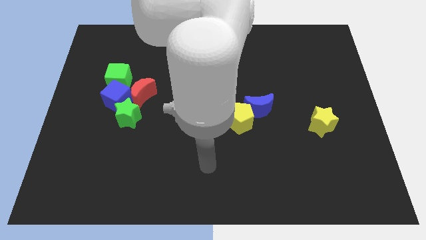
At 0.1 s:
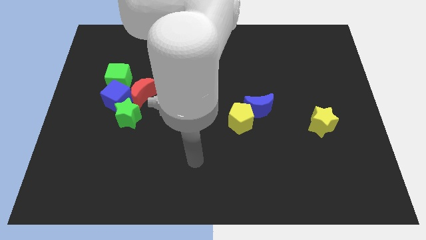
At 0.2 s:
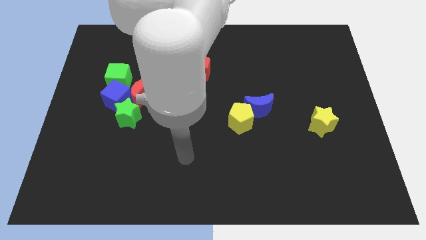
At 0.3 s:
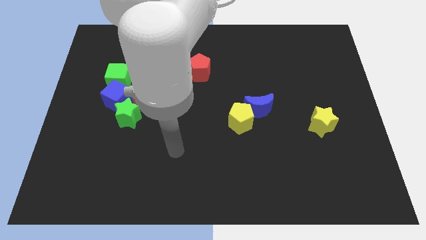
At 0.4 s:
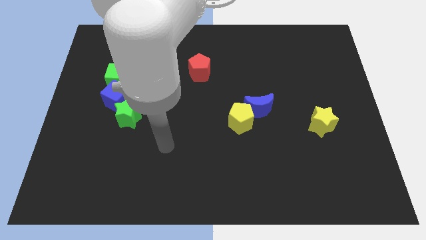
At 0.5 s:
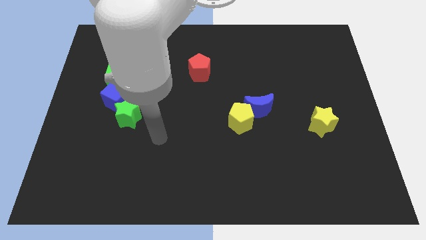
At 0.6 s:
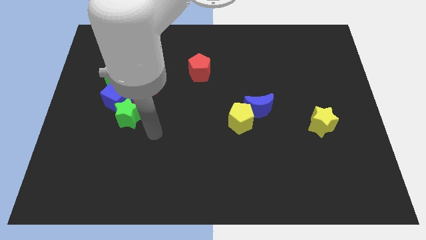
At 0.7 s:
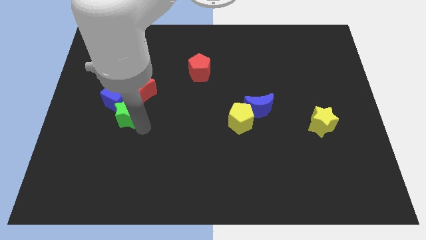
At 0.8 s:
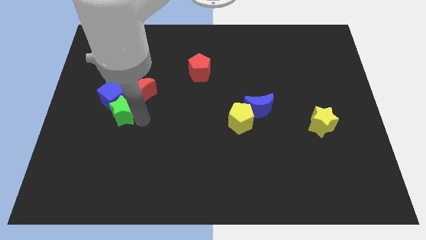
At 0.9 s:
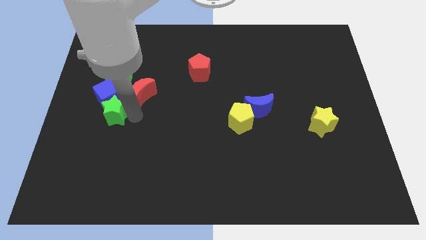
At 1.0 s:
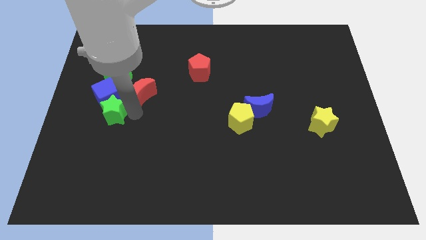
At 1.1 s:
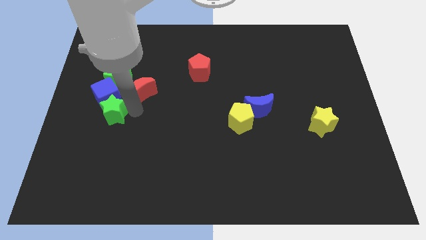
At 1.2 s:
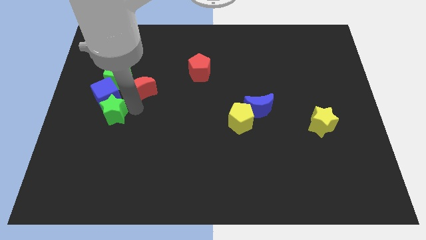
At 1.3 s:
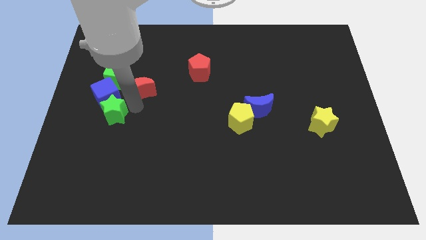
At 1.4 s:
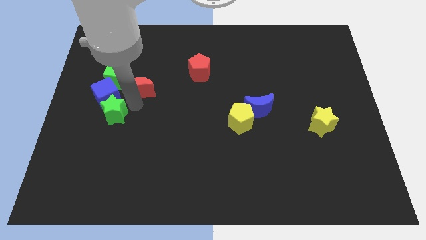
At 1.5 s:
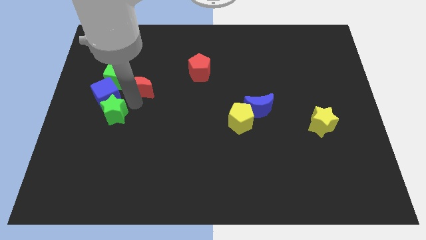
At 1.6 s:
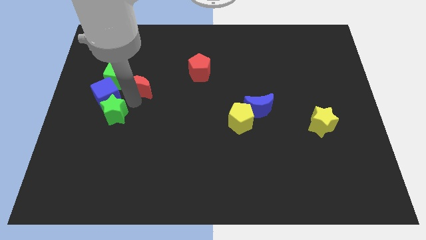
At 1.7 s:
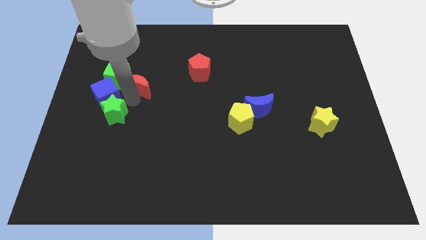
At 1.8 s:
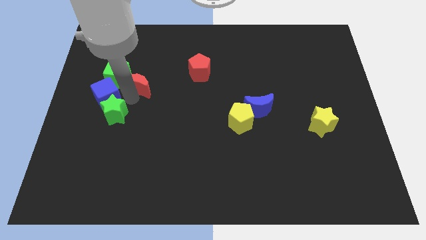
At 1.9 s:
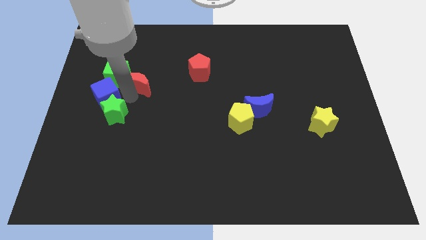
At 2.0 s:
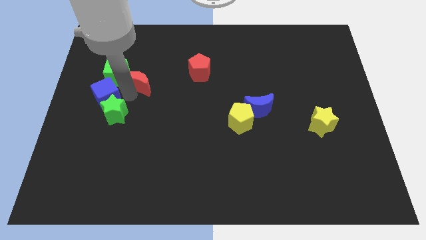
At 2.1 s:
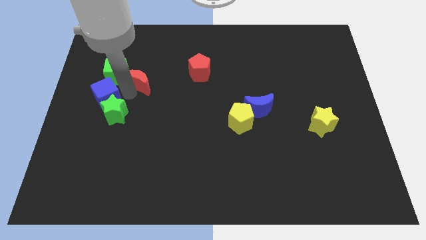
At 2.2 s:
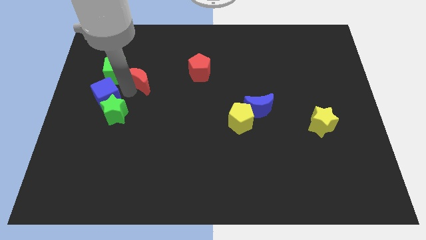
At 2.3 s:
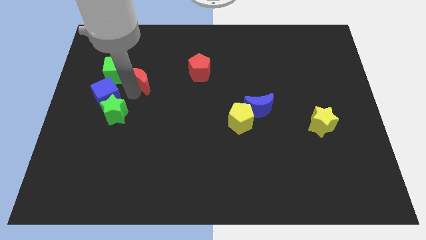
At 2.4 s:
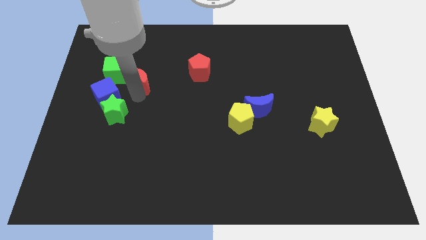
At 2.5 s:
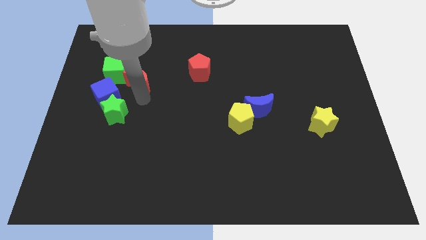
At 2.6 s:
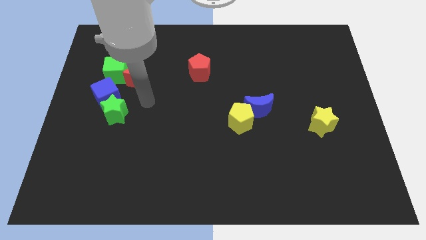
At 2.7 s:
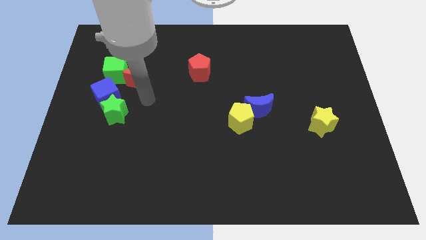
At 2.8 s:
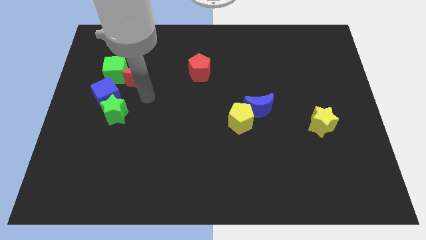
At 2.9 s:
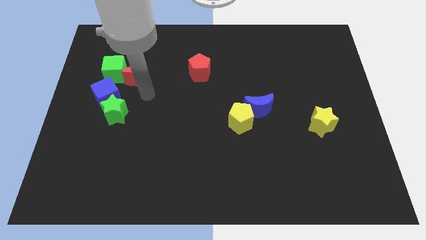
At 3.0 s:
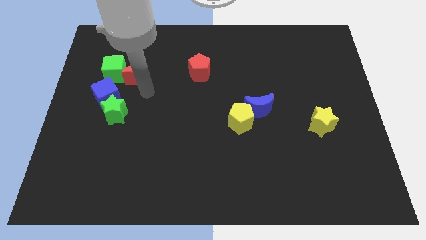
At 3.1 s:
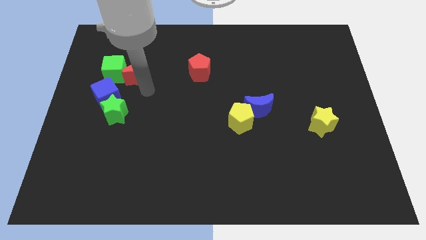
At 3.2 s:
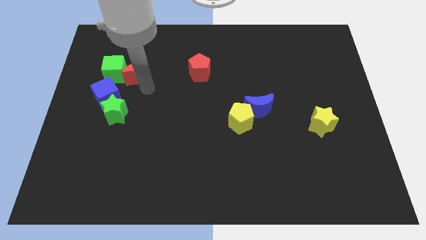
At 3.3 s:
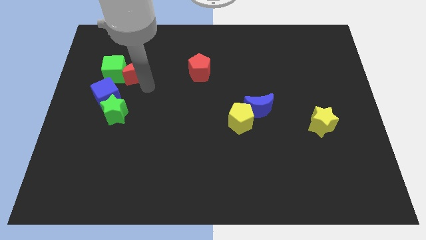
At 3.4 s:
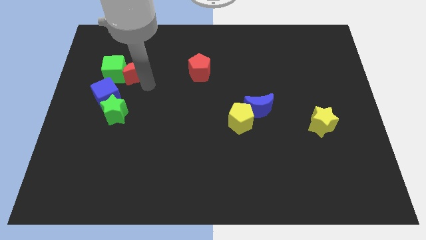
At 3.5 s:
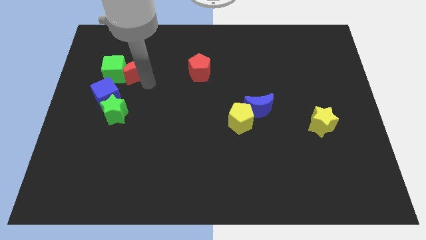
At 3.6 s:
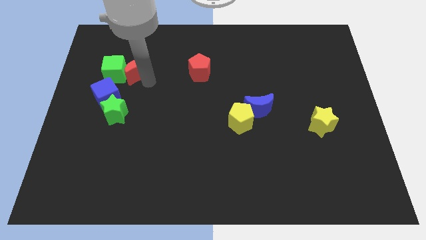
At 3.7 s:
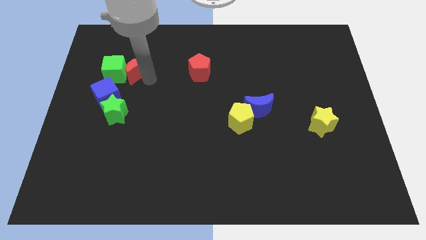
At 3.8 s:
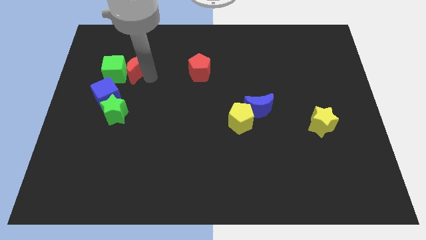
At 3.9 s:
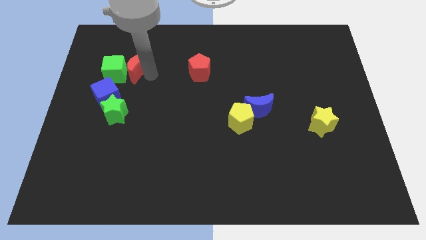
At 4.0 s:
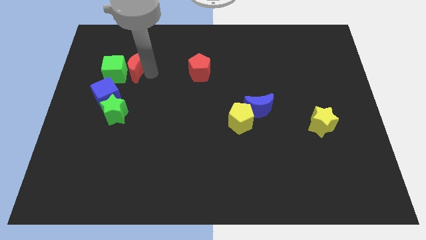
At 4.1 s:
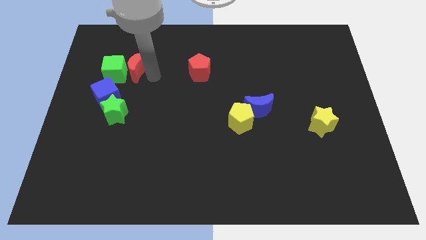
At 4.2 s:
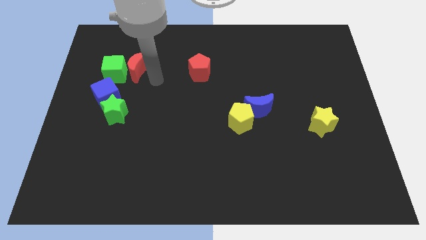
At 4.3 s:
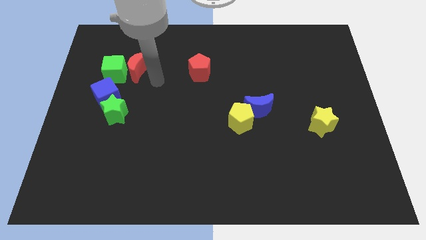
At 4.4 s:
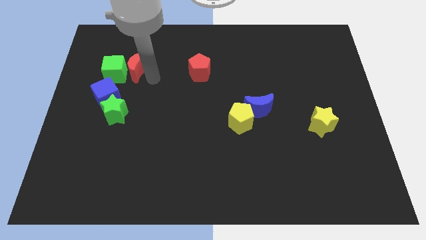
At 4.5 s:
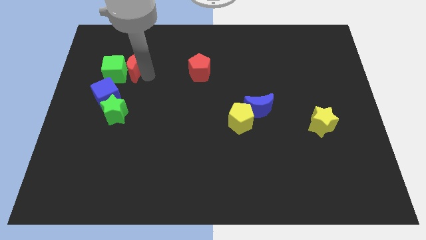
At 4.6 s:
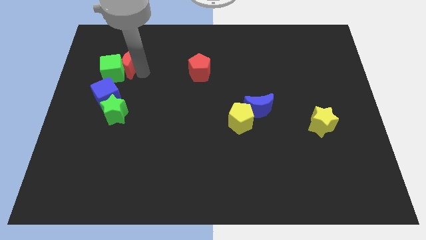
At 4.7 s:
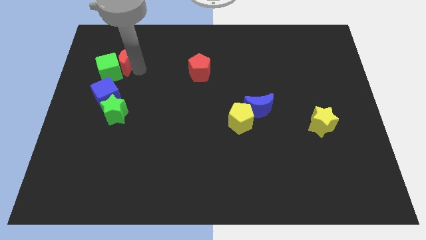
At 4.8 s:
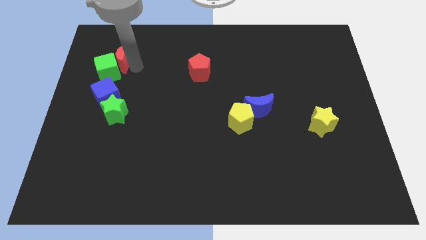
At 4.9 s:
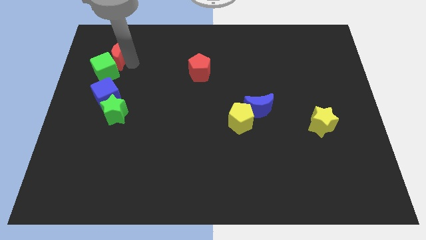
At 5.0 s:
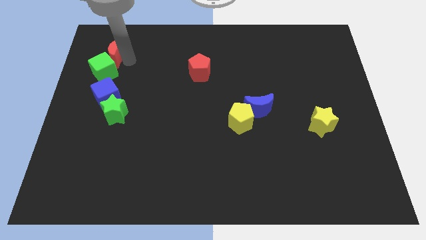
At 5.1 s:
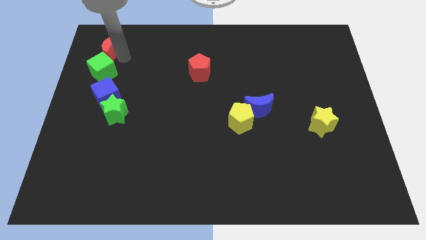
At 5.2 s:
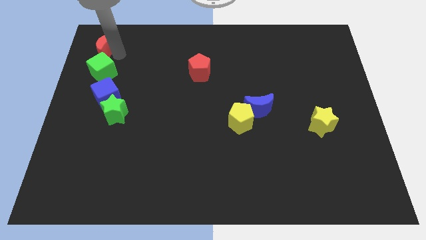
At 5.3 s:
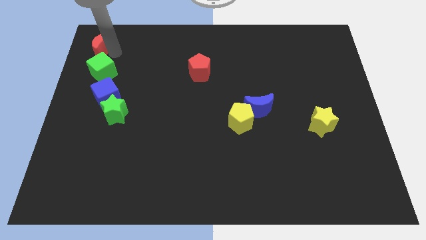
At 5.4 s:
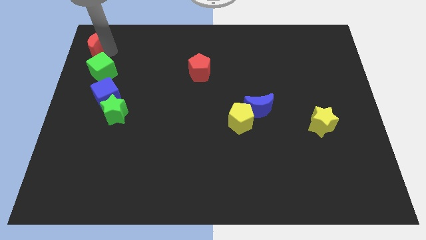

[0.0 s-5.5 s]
slide the red moon to the upper left corner

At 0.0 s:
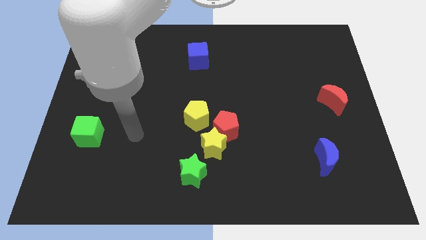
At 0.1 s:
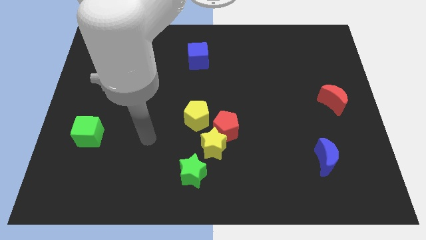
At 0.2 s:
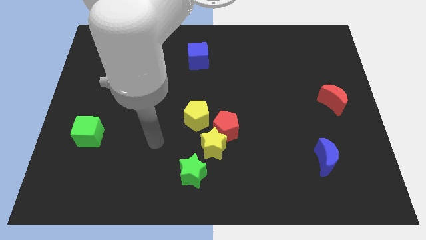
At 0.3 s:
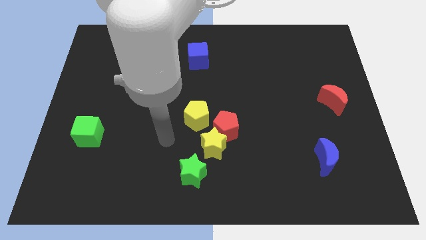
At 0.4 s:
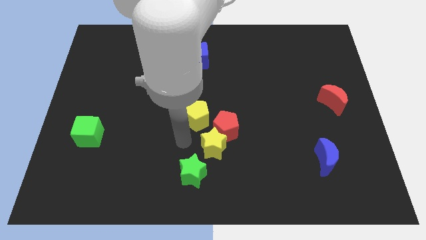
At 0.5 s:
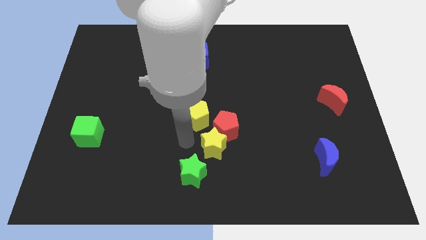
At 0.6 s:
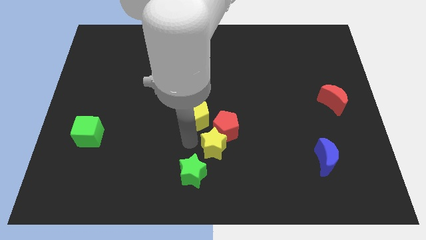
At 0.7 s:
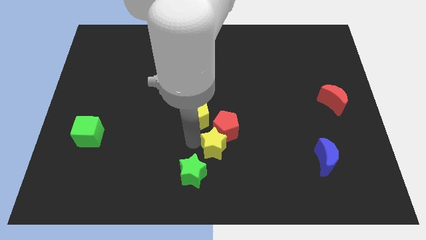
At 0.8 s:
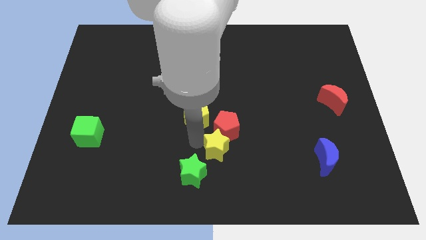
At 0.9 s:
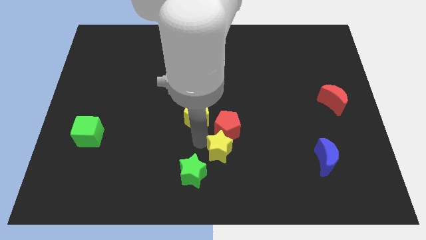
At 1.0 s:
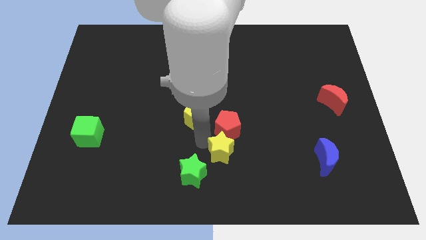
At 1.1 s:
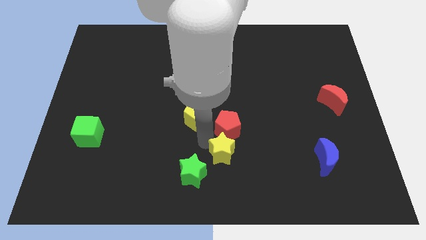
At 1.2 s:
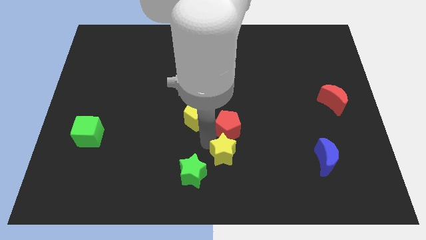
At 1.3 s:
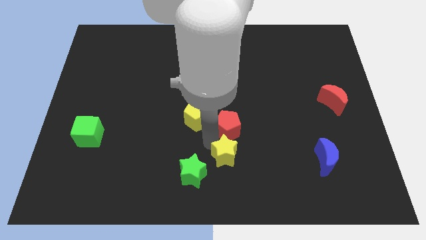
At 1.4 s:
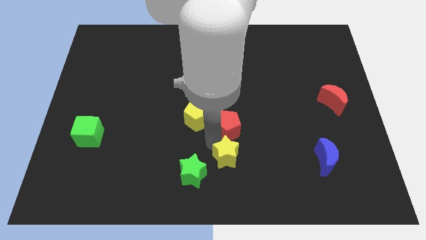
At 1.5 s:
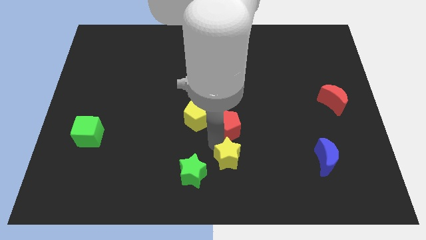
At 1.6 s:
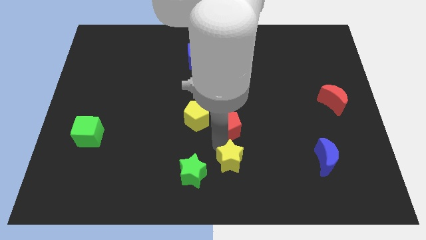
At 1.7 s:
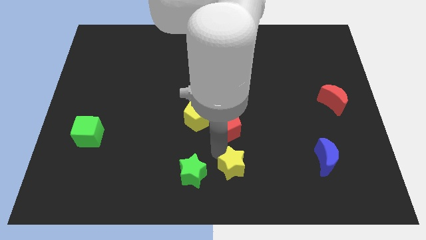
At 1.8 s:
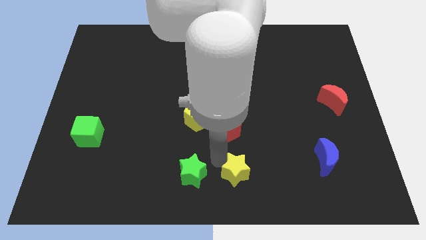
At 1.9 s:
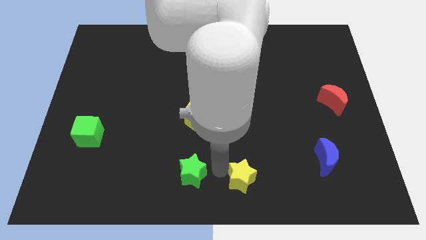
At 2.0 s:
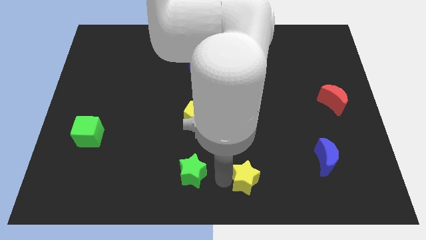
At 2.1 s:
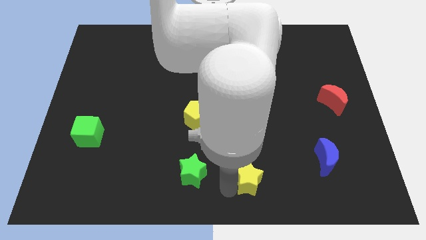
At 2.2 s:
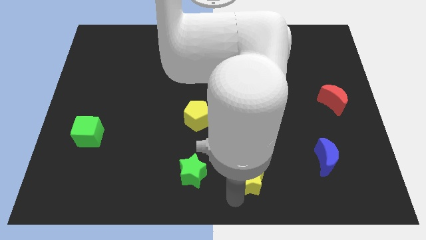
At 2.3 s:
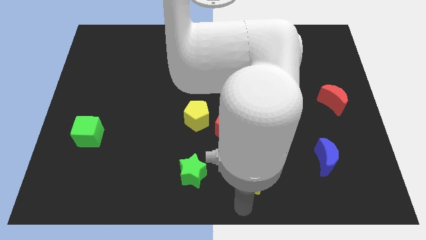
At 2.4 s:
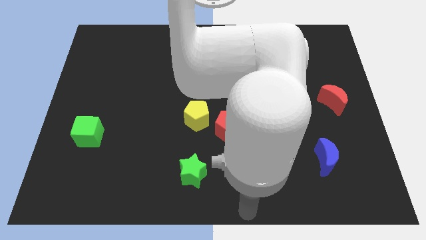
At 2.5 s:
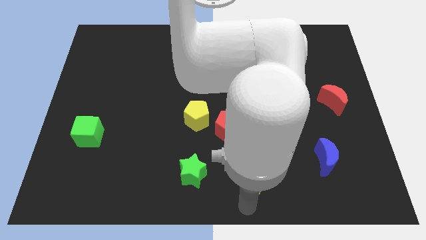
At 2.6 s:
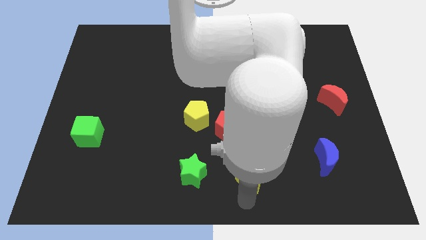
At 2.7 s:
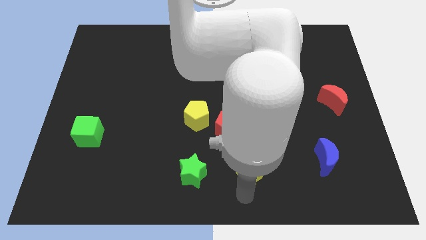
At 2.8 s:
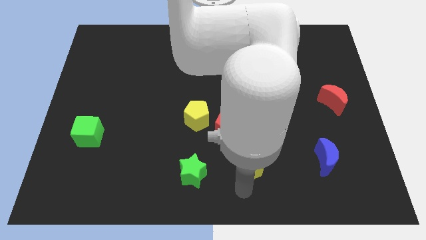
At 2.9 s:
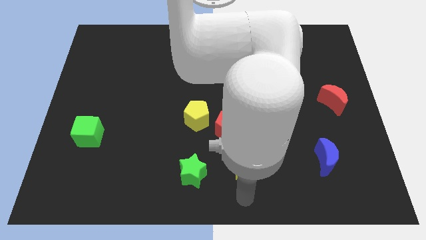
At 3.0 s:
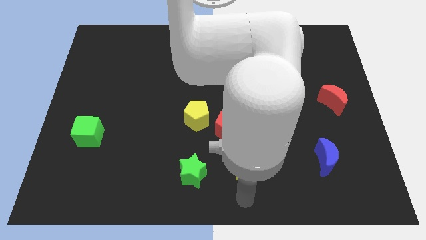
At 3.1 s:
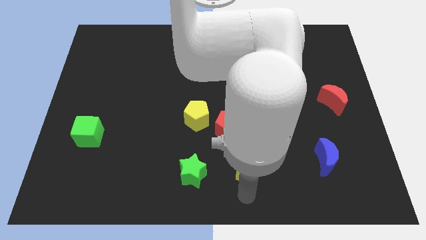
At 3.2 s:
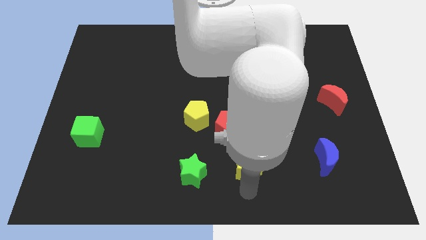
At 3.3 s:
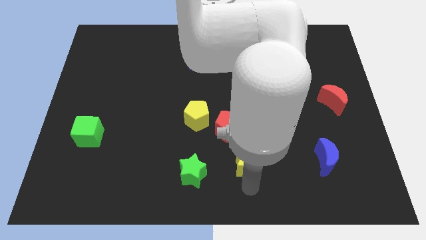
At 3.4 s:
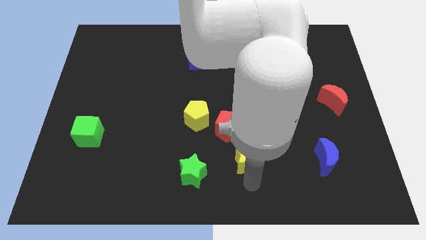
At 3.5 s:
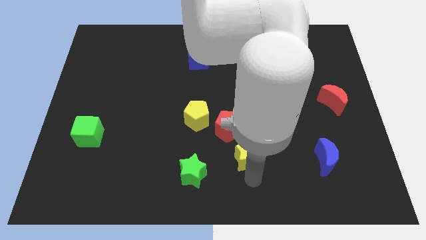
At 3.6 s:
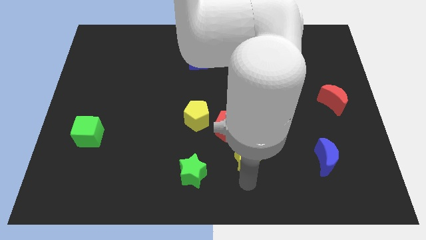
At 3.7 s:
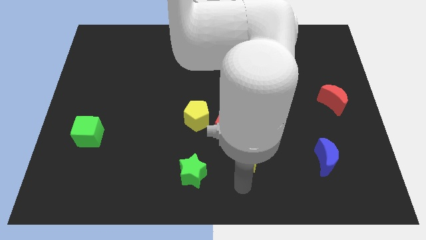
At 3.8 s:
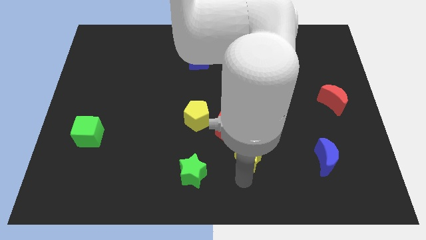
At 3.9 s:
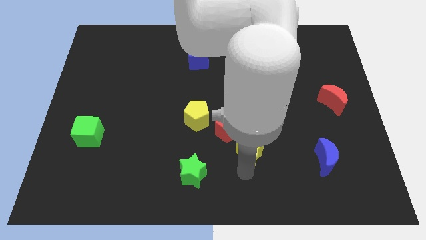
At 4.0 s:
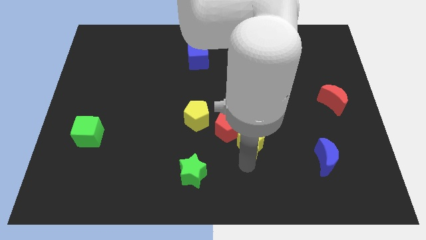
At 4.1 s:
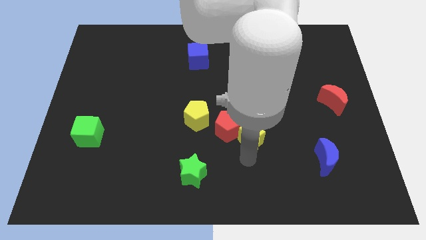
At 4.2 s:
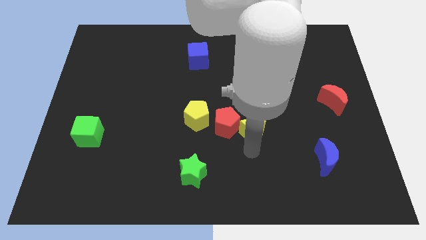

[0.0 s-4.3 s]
put the yellow star to the center of the board
